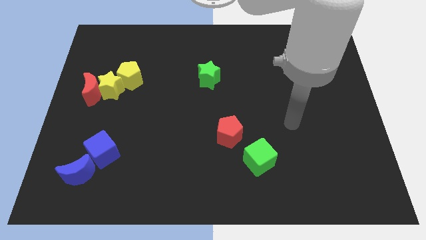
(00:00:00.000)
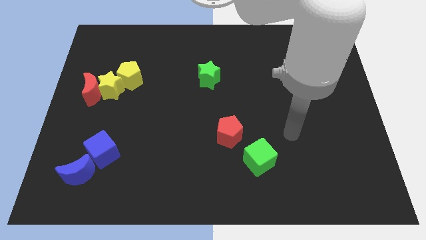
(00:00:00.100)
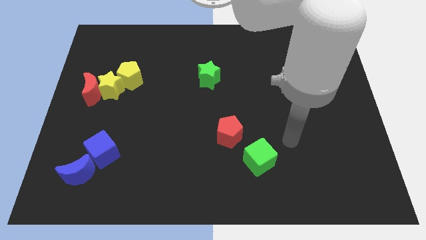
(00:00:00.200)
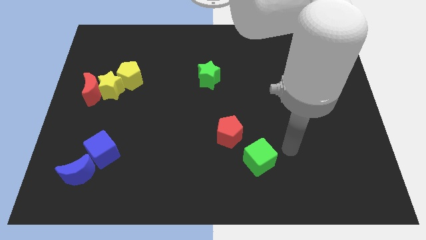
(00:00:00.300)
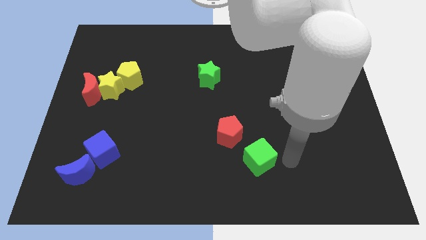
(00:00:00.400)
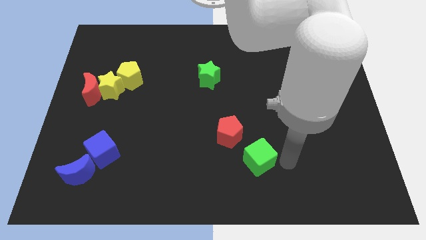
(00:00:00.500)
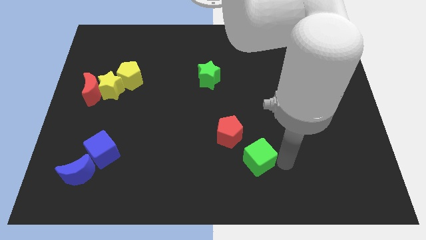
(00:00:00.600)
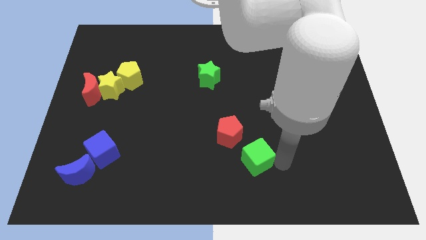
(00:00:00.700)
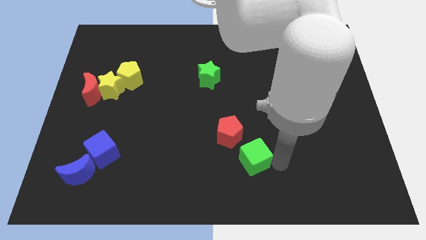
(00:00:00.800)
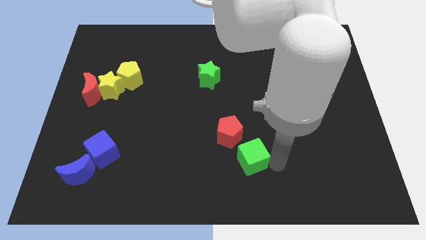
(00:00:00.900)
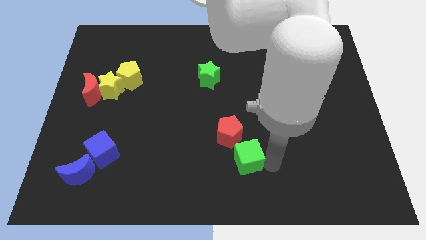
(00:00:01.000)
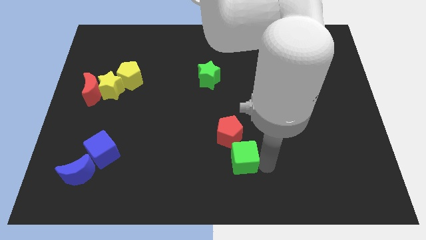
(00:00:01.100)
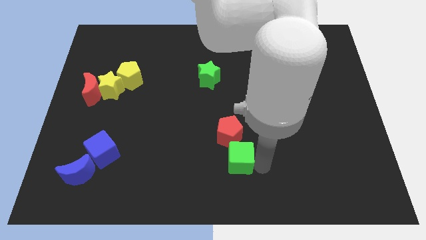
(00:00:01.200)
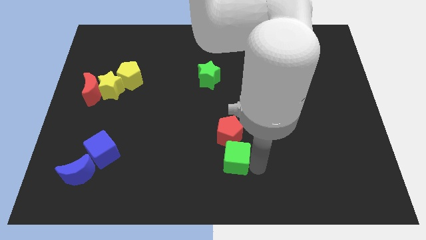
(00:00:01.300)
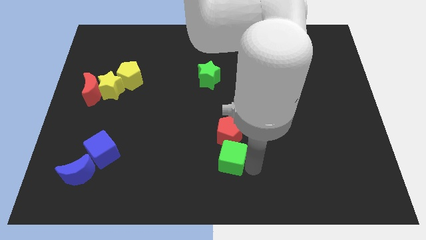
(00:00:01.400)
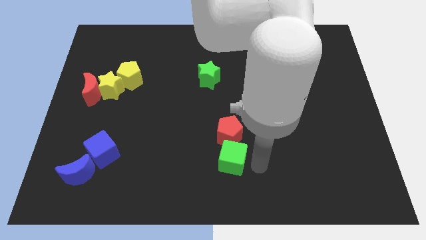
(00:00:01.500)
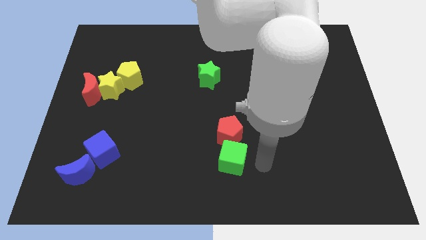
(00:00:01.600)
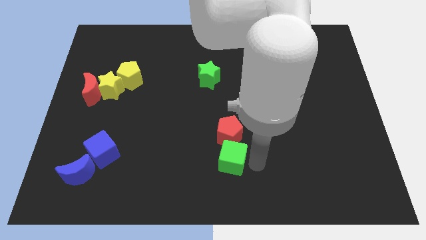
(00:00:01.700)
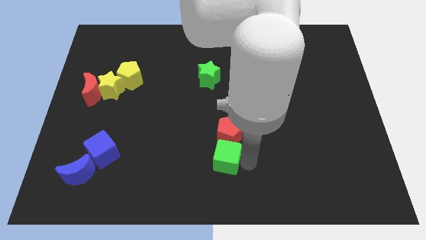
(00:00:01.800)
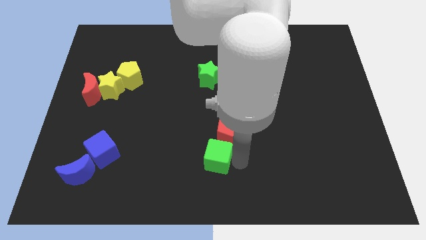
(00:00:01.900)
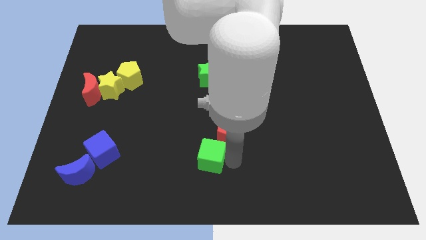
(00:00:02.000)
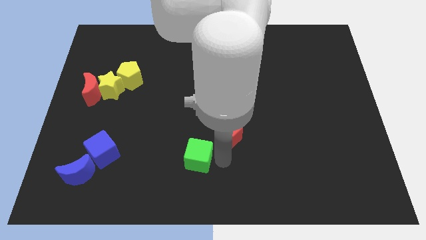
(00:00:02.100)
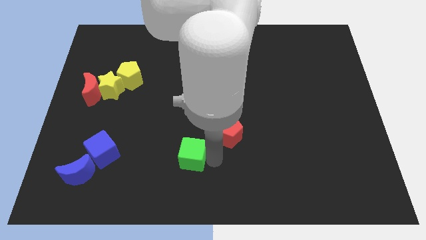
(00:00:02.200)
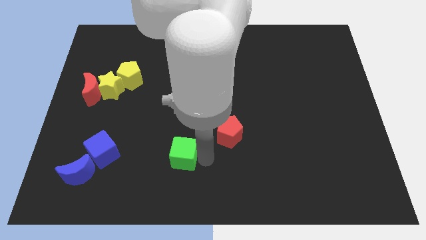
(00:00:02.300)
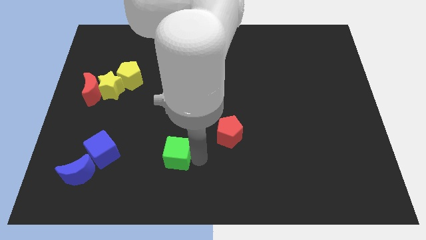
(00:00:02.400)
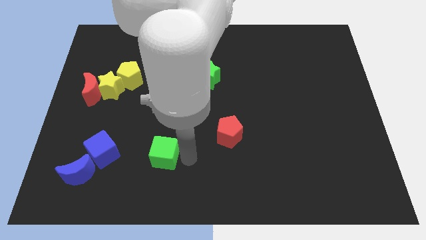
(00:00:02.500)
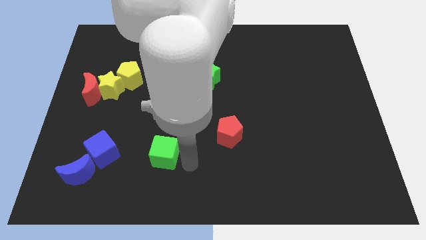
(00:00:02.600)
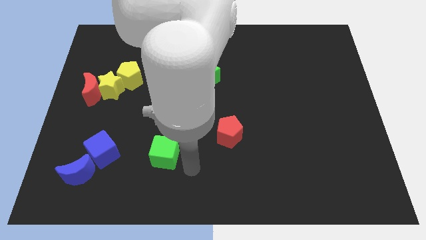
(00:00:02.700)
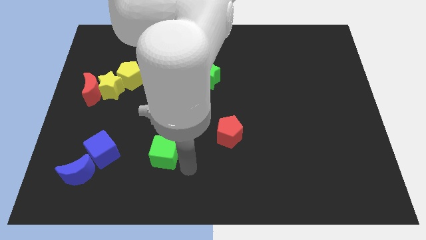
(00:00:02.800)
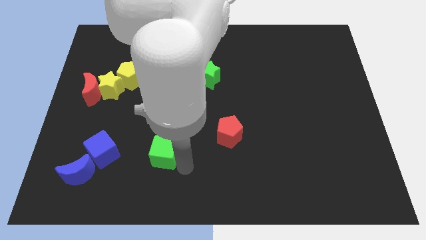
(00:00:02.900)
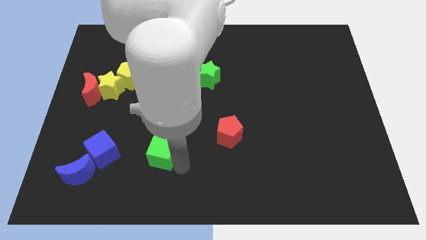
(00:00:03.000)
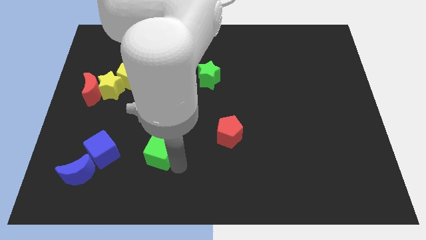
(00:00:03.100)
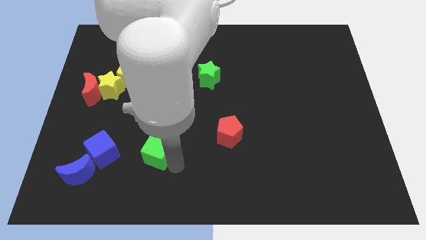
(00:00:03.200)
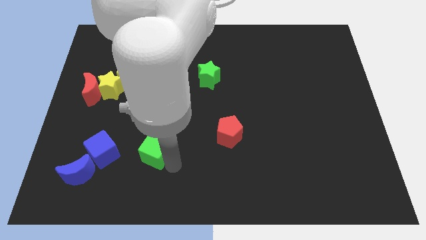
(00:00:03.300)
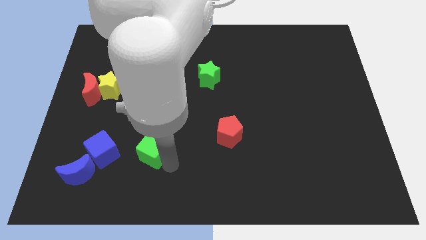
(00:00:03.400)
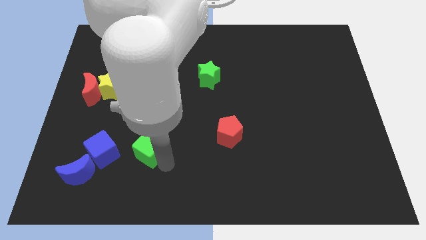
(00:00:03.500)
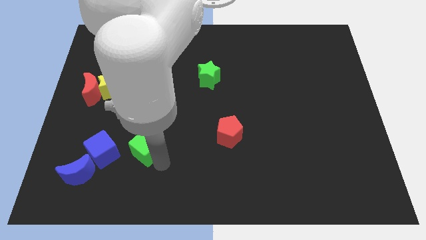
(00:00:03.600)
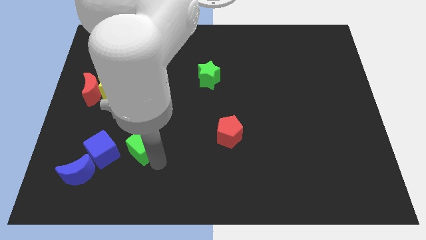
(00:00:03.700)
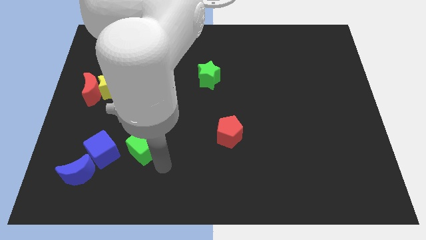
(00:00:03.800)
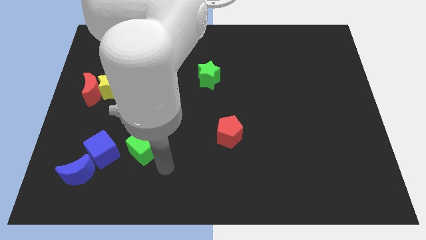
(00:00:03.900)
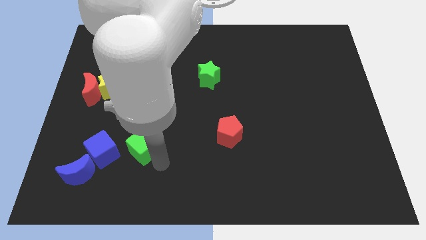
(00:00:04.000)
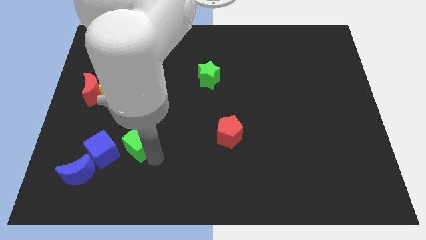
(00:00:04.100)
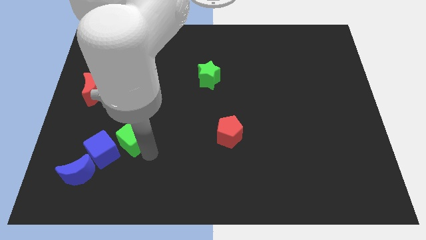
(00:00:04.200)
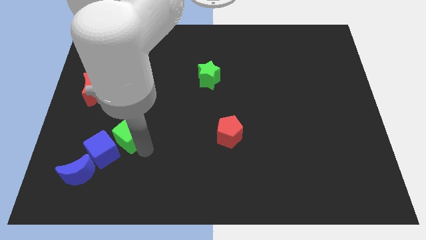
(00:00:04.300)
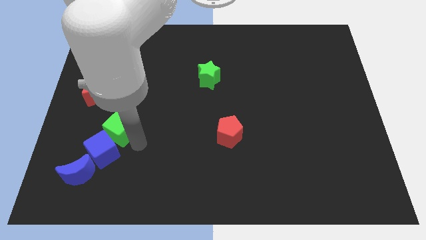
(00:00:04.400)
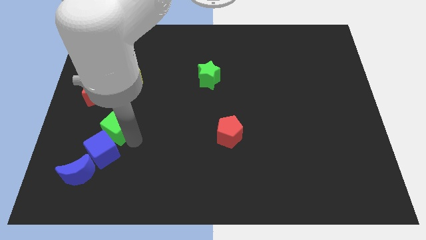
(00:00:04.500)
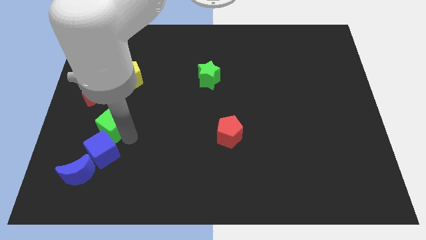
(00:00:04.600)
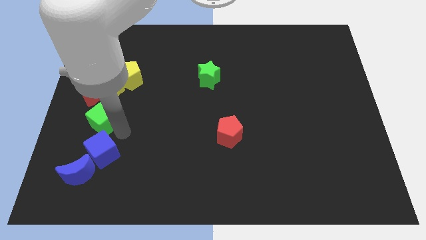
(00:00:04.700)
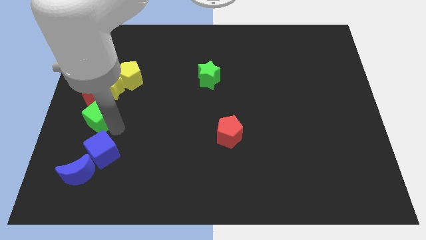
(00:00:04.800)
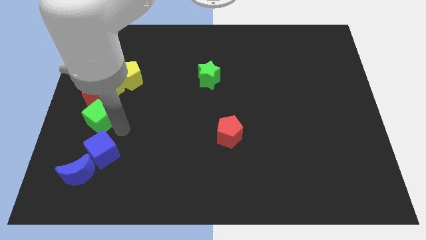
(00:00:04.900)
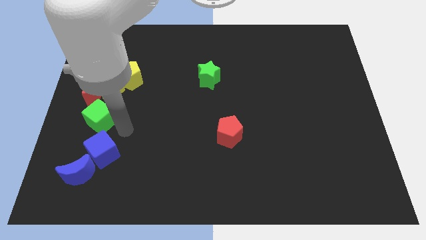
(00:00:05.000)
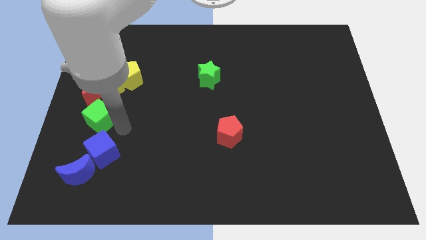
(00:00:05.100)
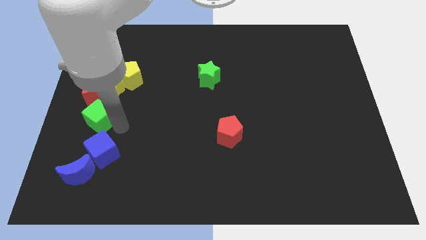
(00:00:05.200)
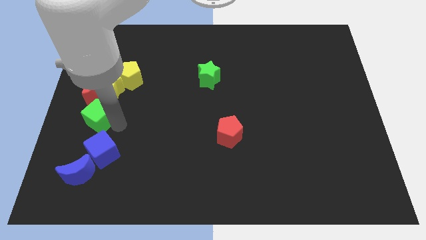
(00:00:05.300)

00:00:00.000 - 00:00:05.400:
slide the green cube to the left side

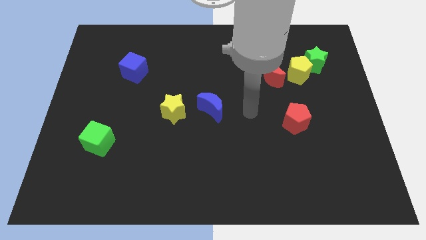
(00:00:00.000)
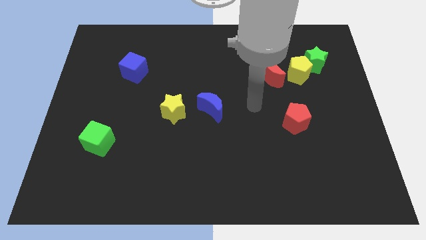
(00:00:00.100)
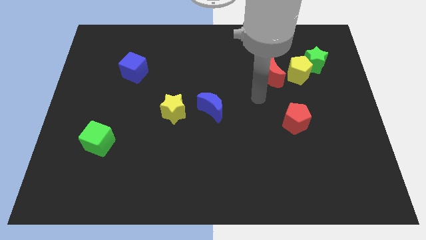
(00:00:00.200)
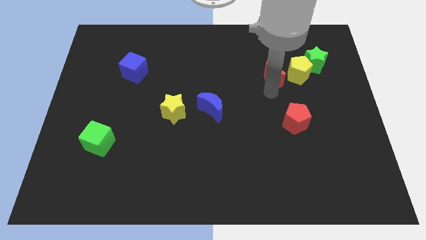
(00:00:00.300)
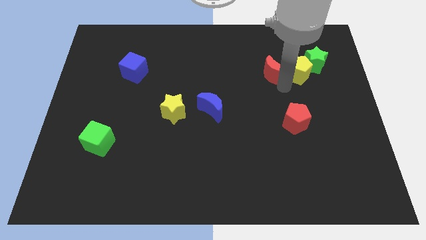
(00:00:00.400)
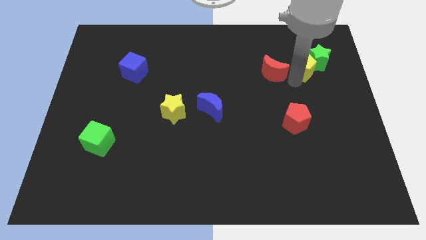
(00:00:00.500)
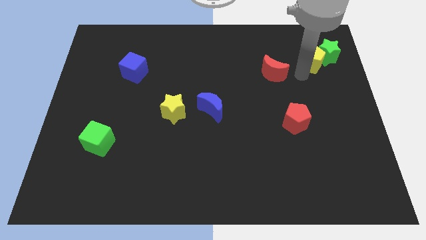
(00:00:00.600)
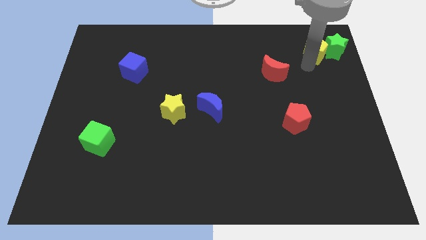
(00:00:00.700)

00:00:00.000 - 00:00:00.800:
put the green star to the top right of the board
